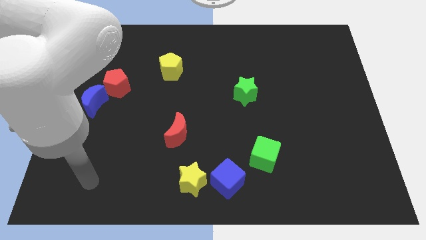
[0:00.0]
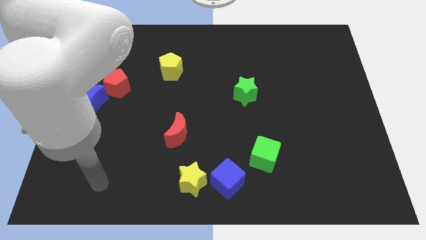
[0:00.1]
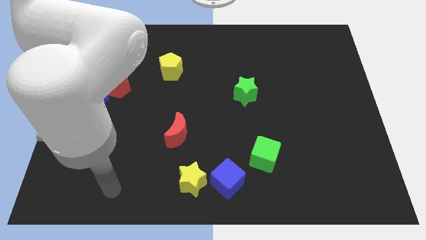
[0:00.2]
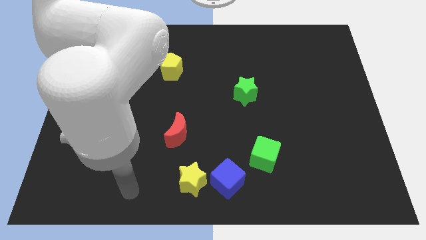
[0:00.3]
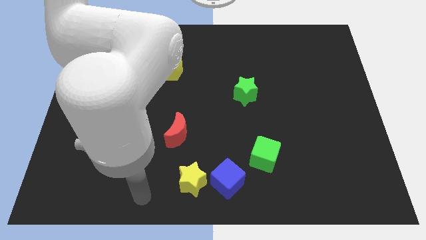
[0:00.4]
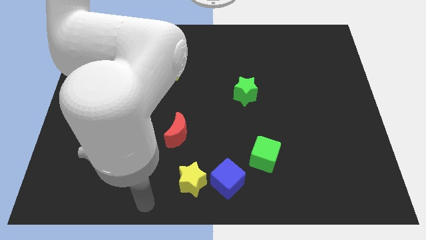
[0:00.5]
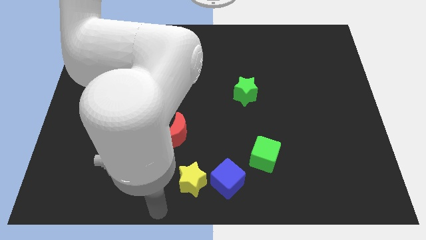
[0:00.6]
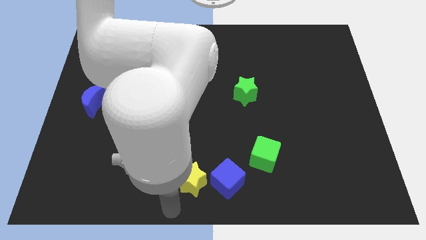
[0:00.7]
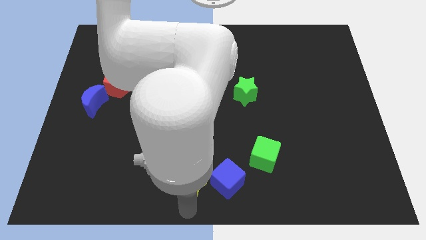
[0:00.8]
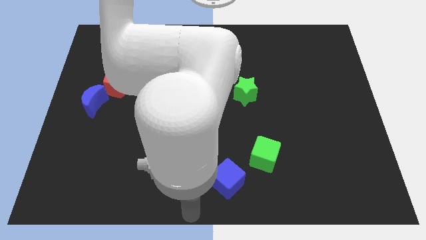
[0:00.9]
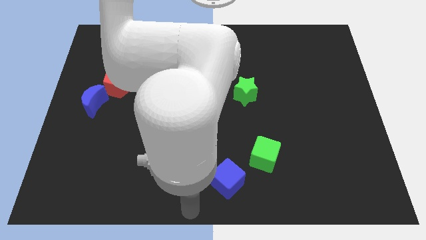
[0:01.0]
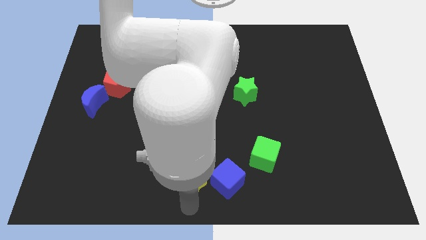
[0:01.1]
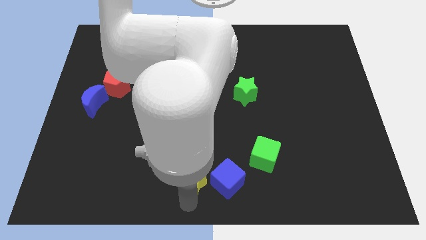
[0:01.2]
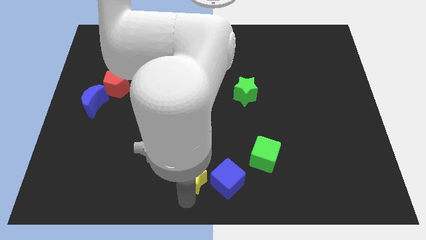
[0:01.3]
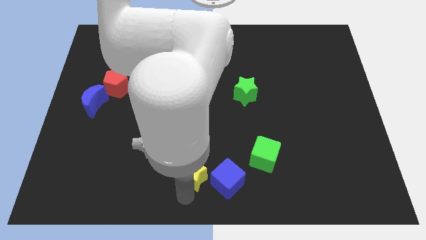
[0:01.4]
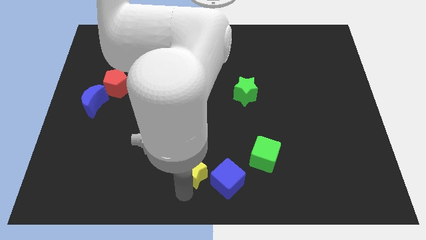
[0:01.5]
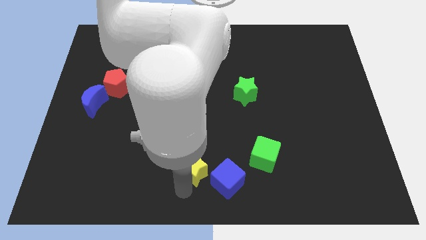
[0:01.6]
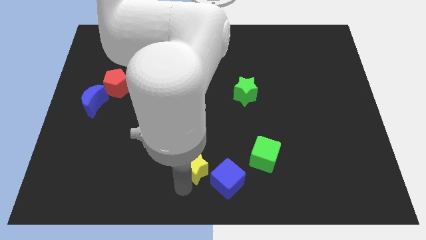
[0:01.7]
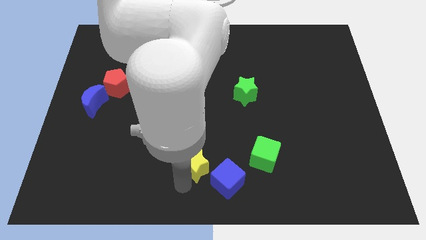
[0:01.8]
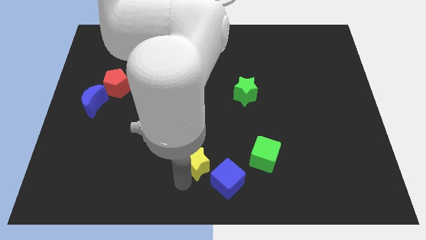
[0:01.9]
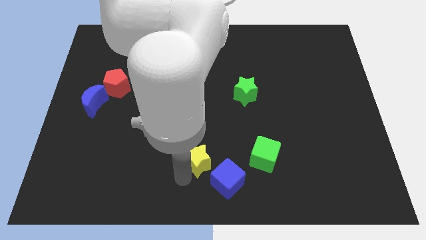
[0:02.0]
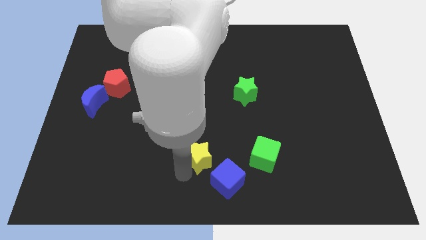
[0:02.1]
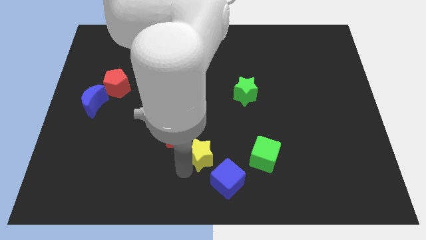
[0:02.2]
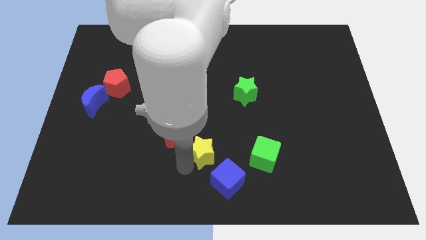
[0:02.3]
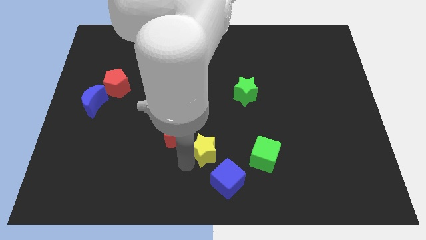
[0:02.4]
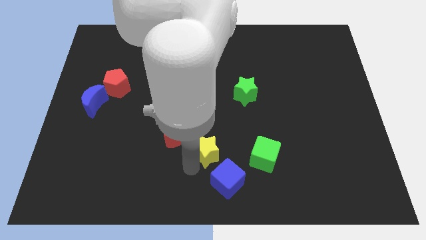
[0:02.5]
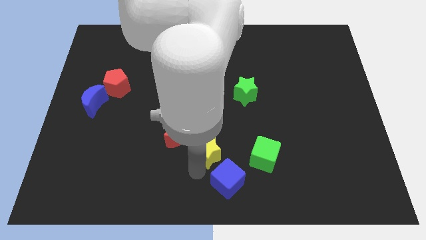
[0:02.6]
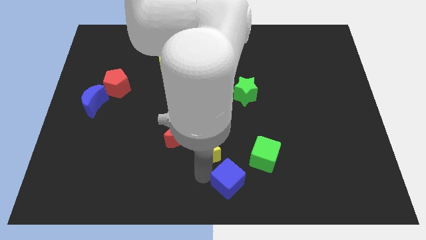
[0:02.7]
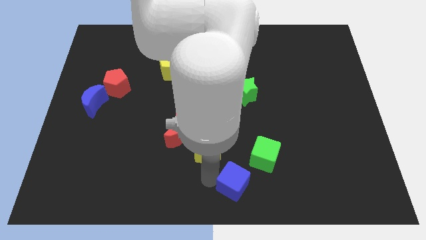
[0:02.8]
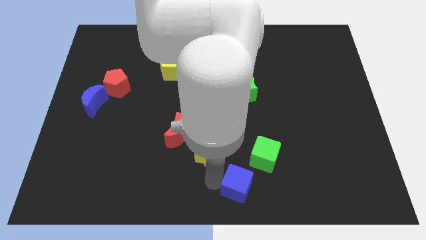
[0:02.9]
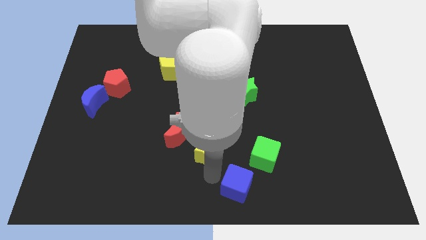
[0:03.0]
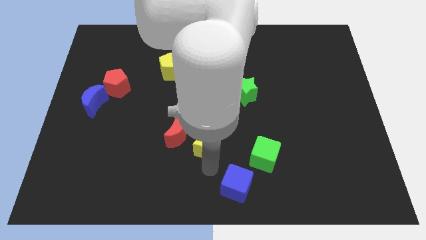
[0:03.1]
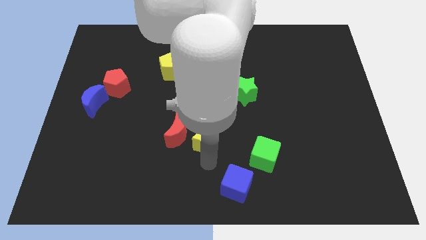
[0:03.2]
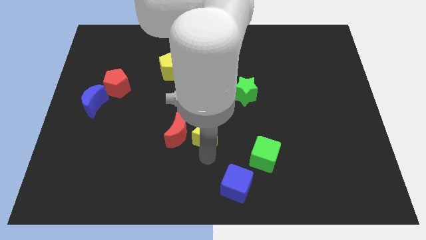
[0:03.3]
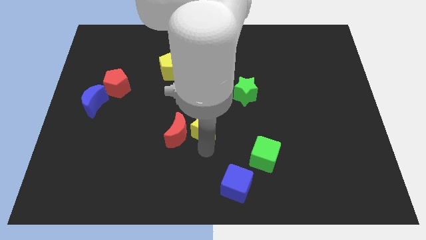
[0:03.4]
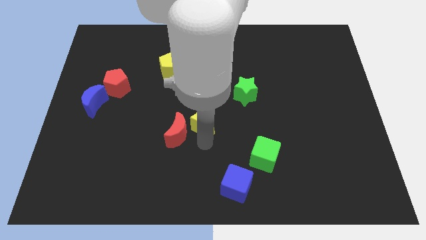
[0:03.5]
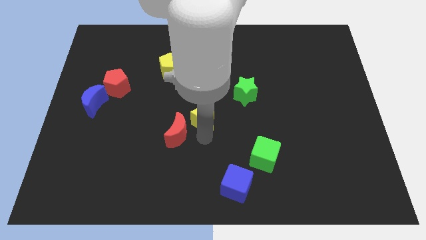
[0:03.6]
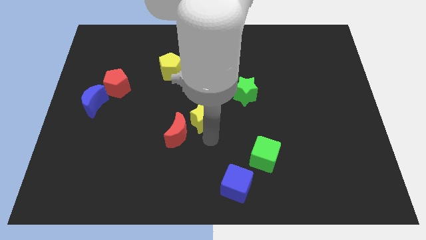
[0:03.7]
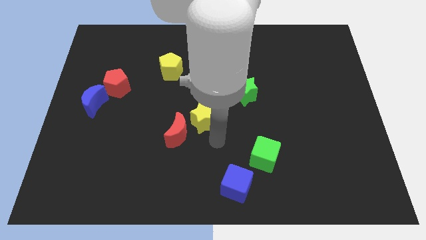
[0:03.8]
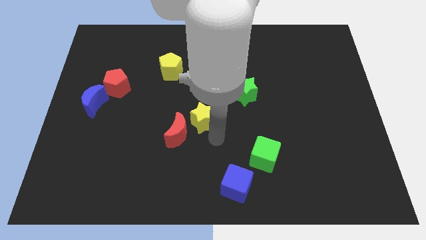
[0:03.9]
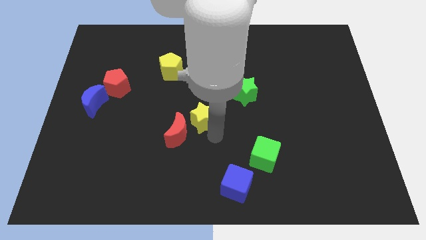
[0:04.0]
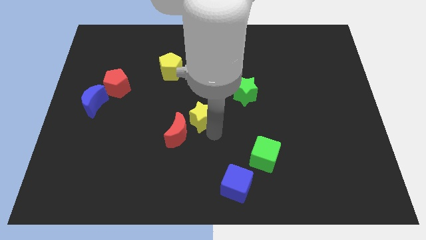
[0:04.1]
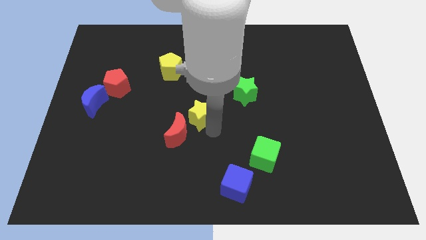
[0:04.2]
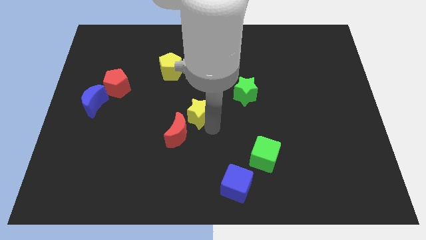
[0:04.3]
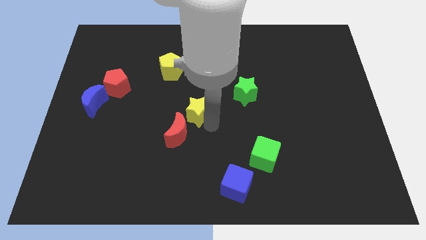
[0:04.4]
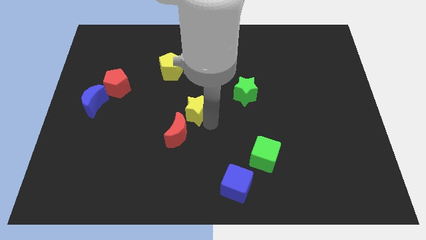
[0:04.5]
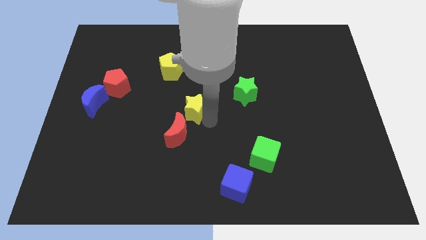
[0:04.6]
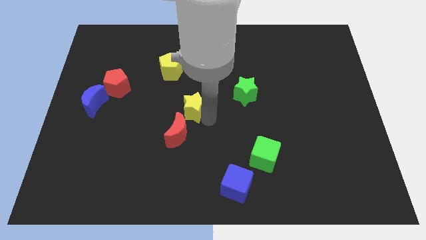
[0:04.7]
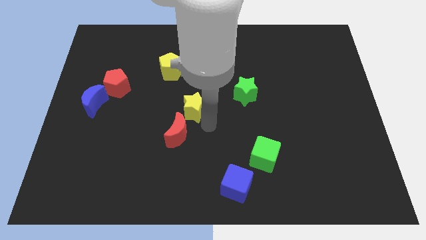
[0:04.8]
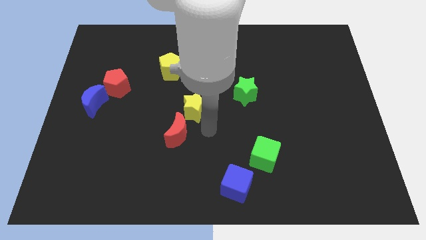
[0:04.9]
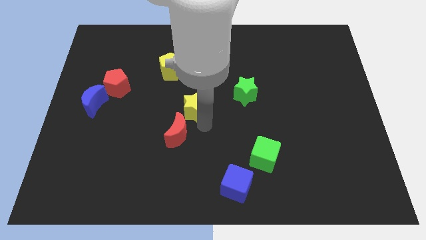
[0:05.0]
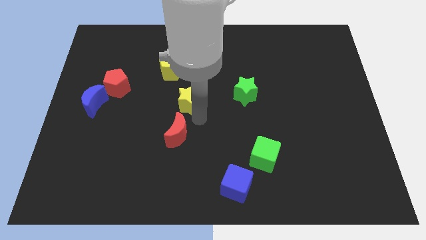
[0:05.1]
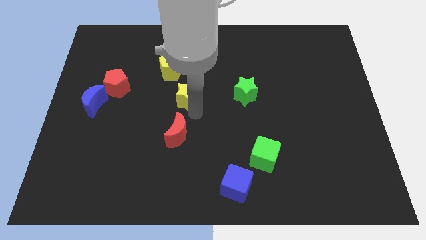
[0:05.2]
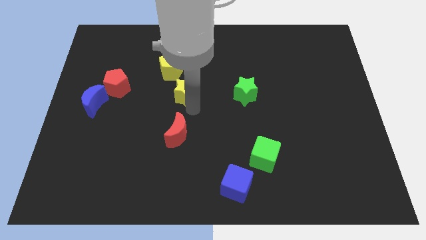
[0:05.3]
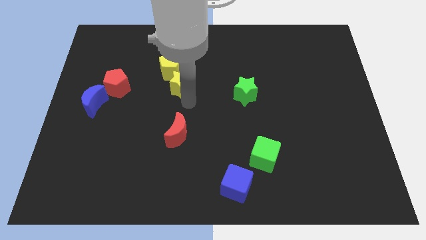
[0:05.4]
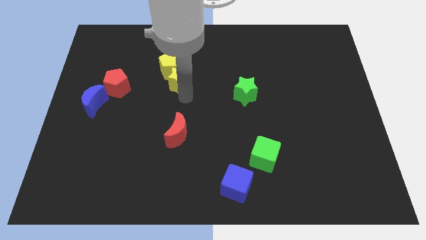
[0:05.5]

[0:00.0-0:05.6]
put the yellow star to the yellow pentagon

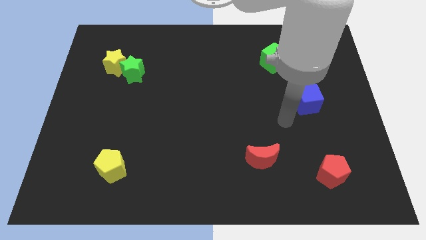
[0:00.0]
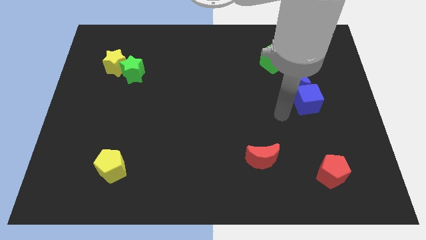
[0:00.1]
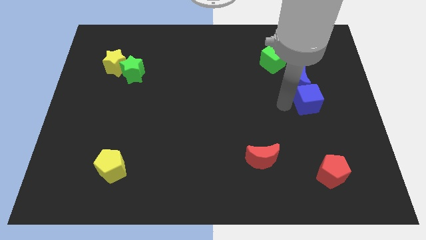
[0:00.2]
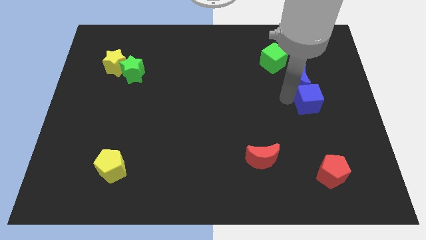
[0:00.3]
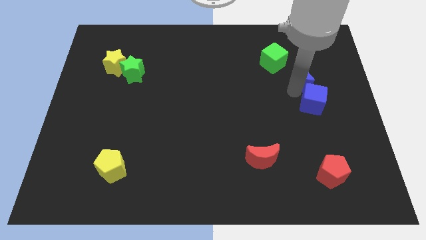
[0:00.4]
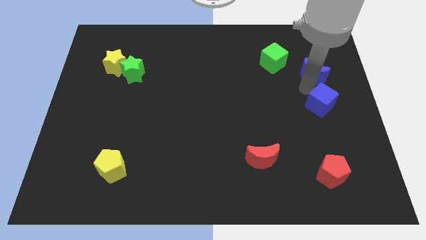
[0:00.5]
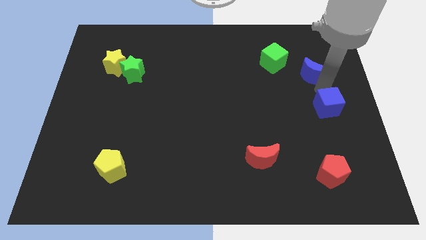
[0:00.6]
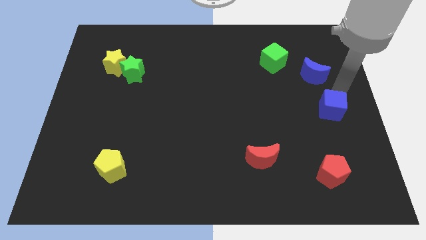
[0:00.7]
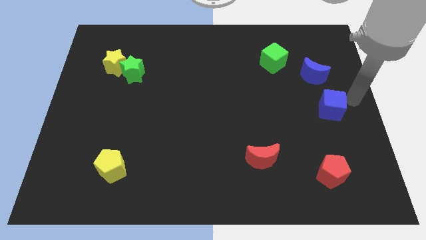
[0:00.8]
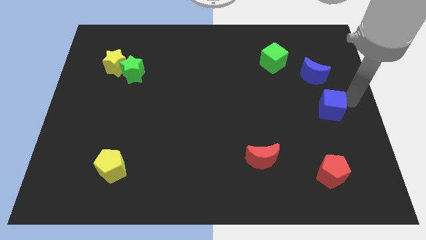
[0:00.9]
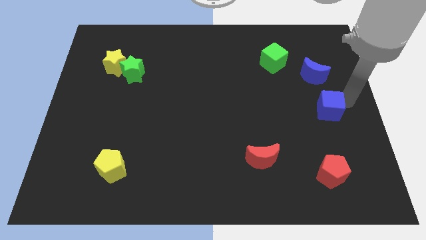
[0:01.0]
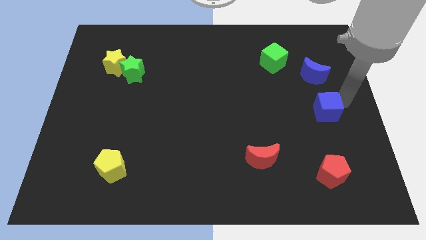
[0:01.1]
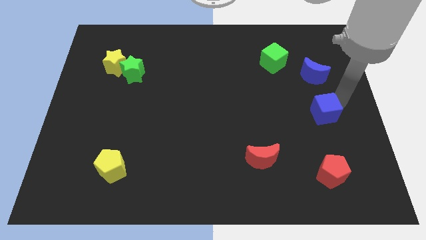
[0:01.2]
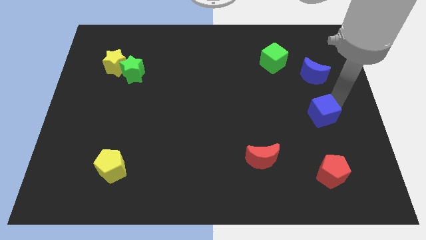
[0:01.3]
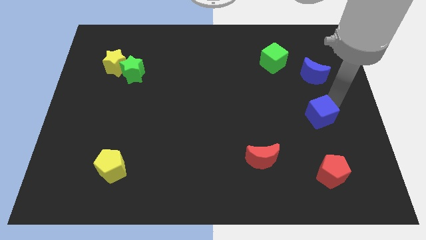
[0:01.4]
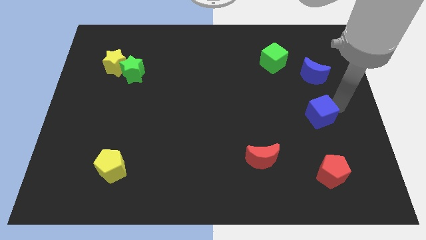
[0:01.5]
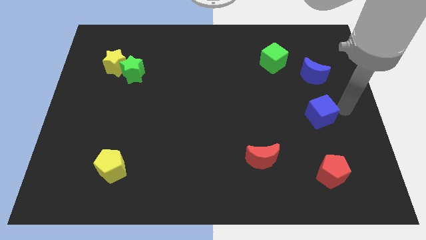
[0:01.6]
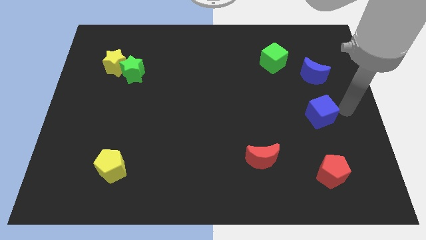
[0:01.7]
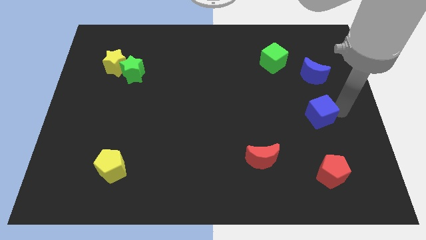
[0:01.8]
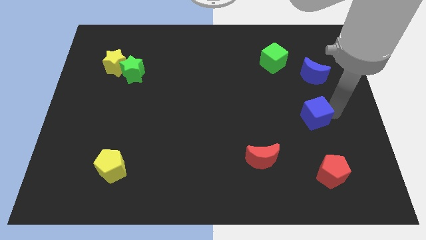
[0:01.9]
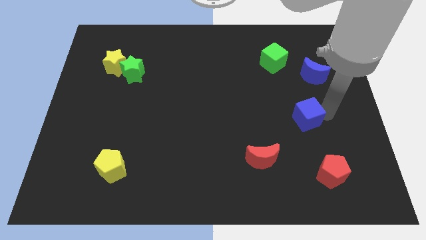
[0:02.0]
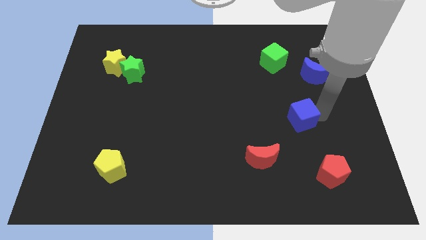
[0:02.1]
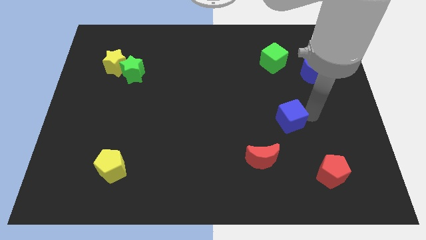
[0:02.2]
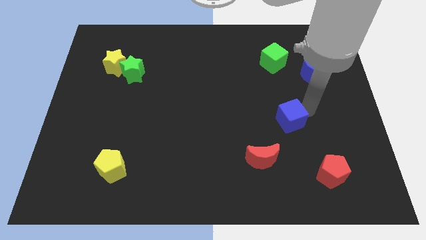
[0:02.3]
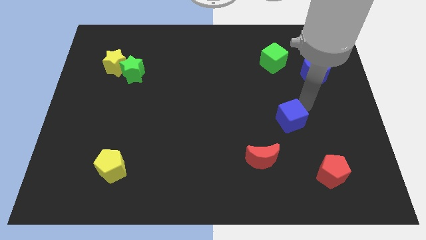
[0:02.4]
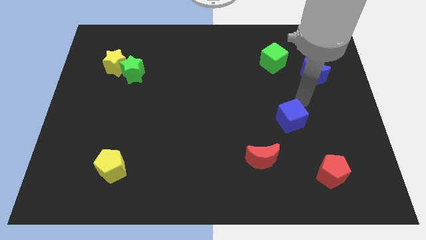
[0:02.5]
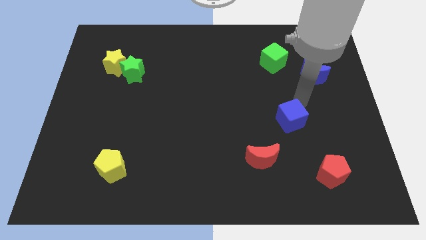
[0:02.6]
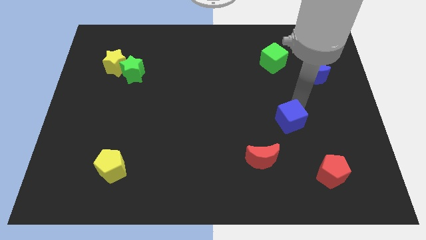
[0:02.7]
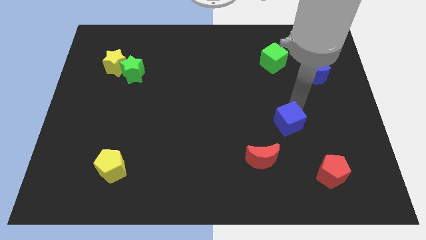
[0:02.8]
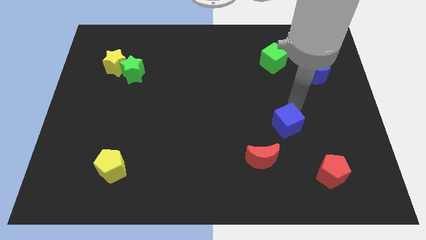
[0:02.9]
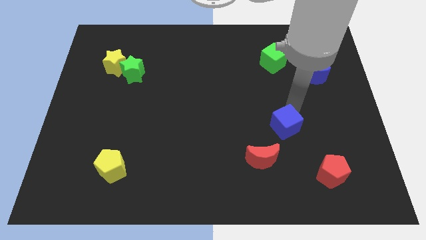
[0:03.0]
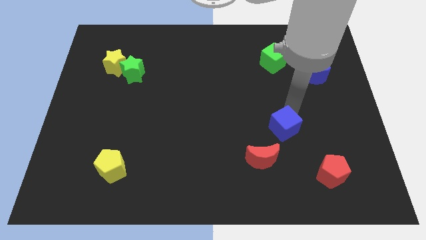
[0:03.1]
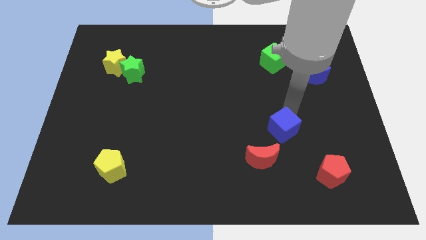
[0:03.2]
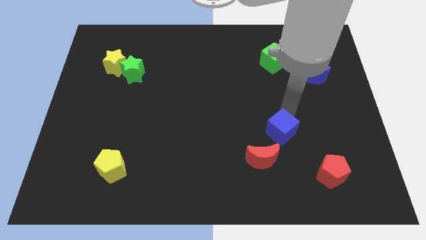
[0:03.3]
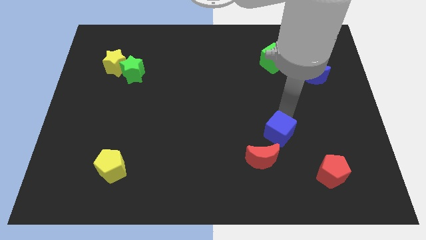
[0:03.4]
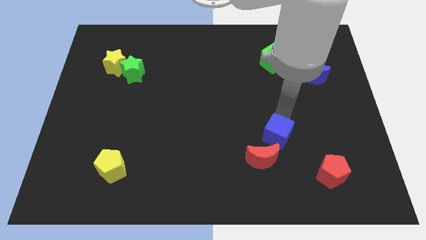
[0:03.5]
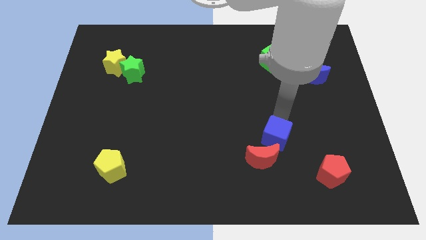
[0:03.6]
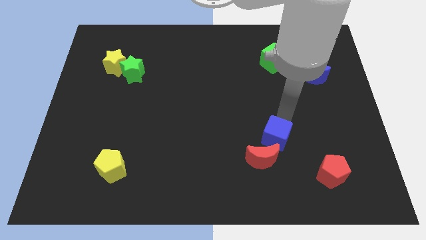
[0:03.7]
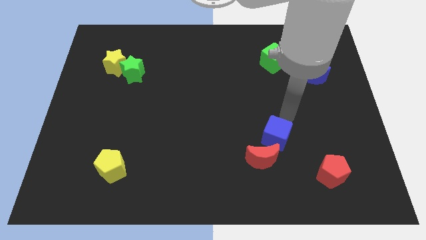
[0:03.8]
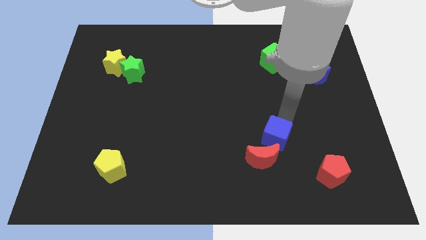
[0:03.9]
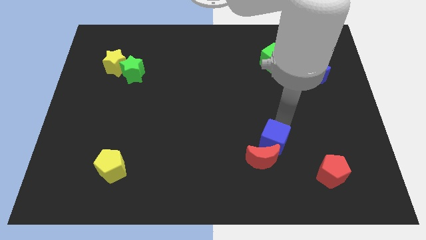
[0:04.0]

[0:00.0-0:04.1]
put the blue cube next to the red moon
